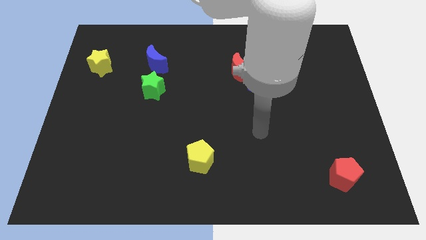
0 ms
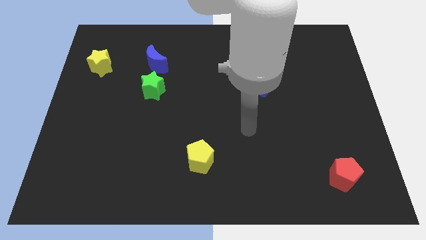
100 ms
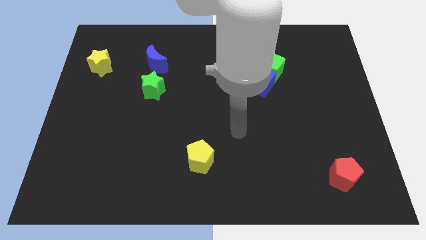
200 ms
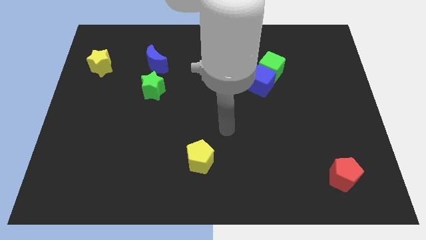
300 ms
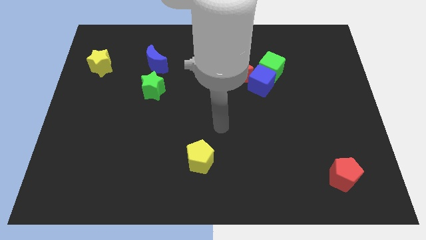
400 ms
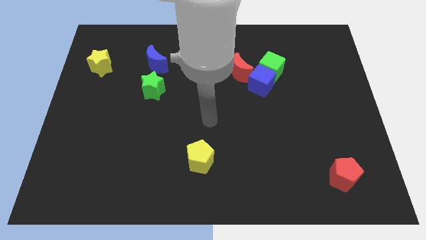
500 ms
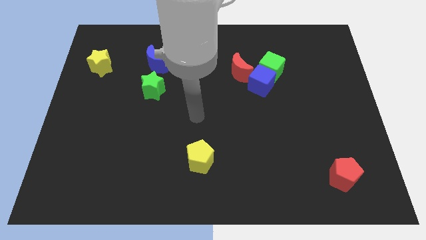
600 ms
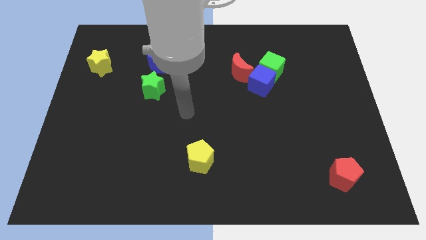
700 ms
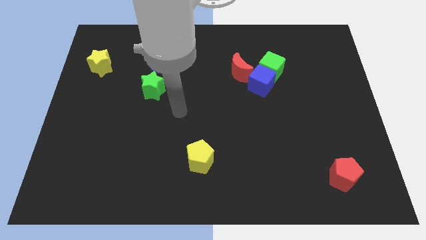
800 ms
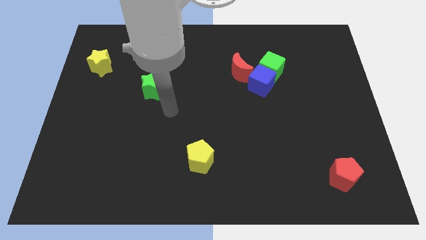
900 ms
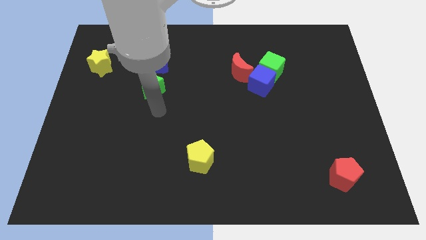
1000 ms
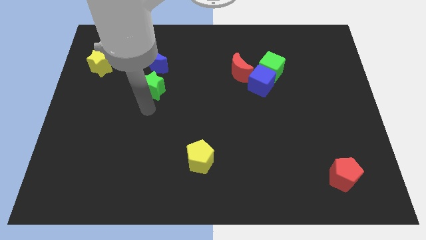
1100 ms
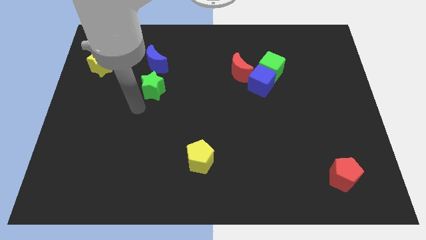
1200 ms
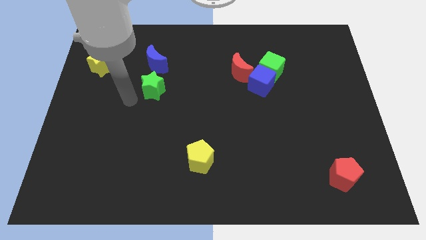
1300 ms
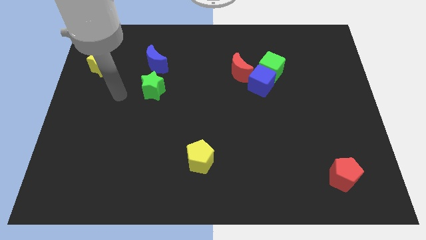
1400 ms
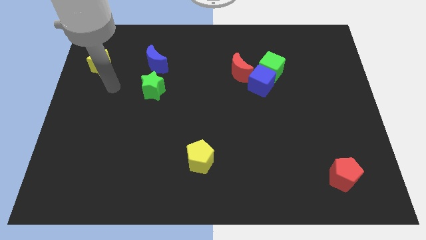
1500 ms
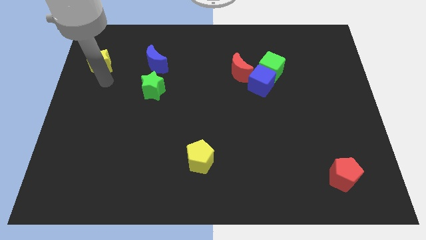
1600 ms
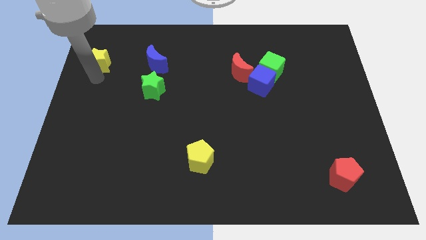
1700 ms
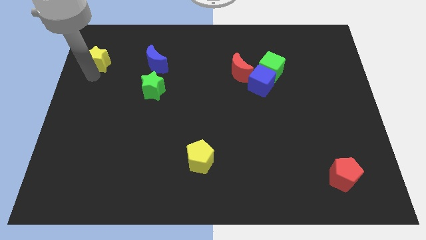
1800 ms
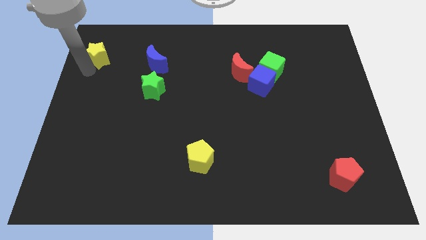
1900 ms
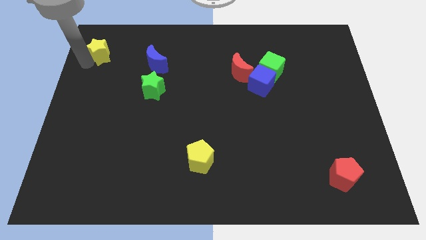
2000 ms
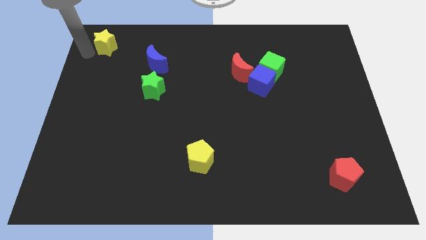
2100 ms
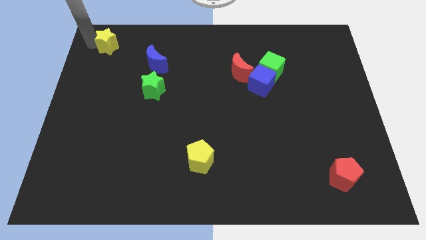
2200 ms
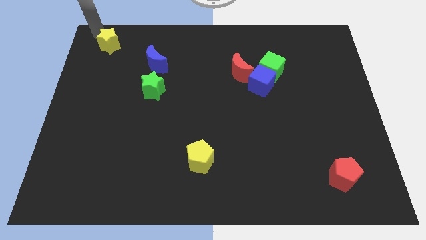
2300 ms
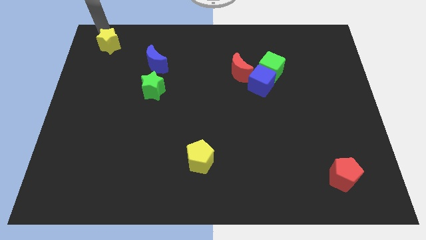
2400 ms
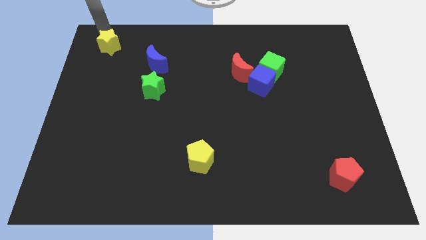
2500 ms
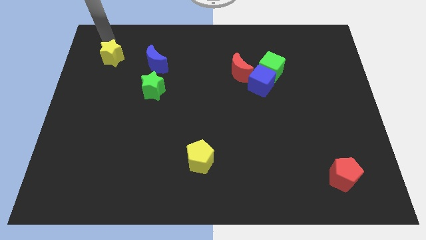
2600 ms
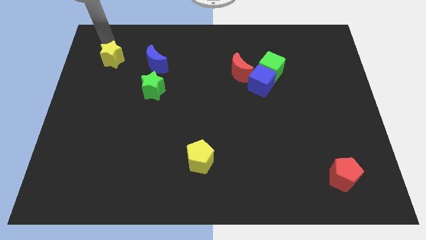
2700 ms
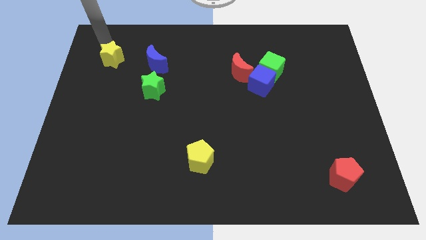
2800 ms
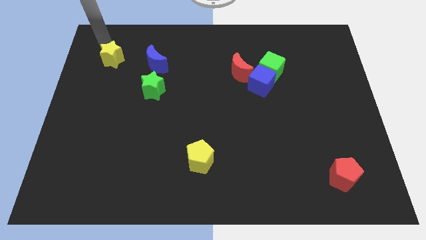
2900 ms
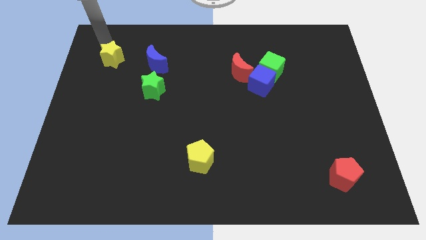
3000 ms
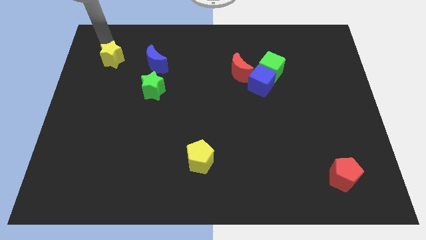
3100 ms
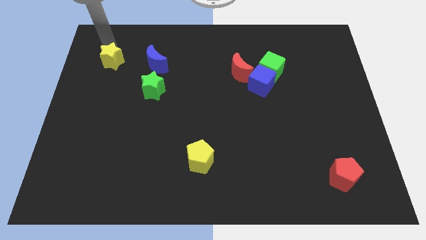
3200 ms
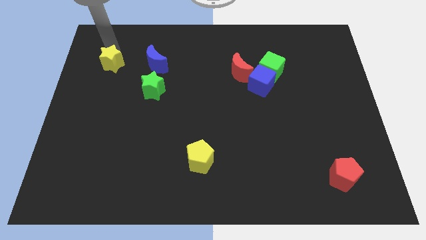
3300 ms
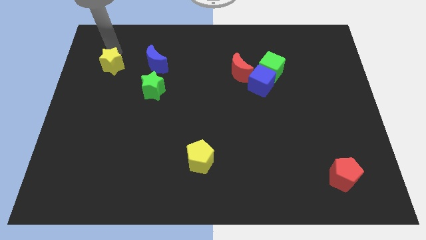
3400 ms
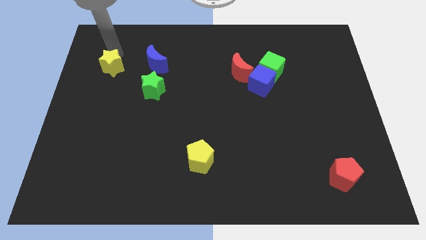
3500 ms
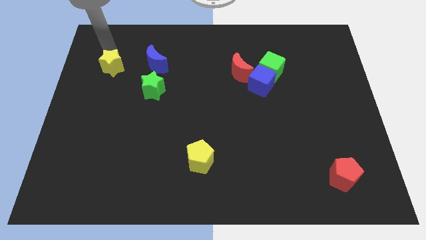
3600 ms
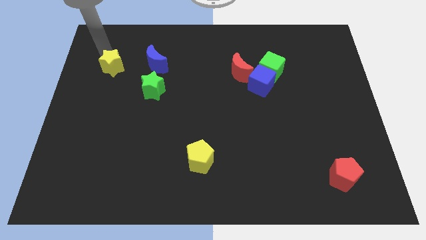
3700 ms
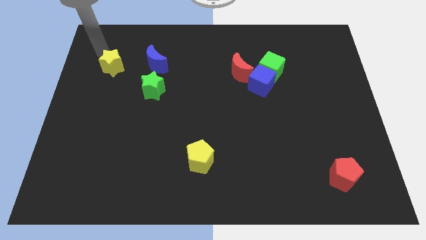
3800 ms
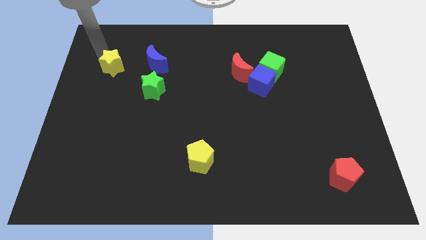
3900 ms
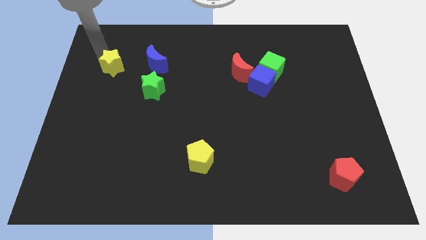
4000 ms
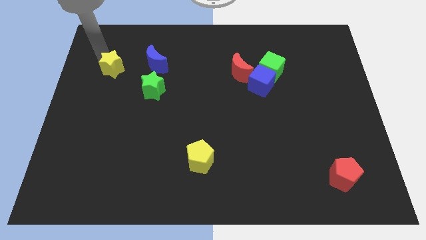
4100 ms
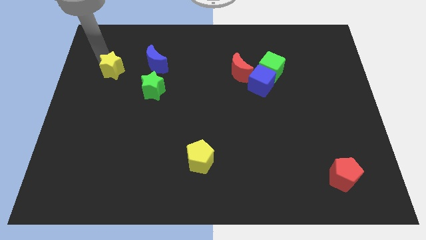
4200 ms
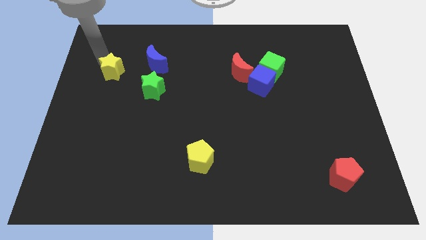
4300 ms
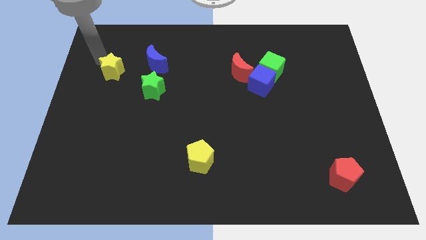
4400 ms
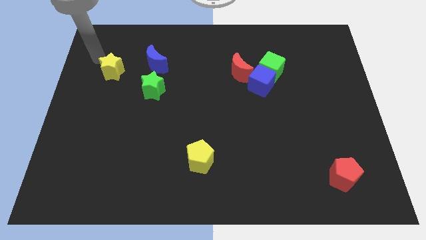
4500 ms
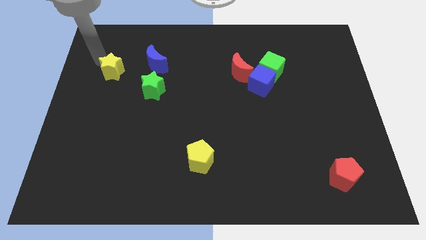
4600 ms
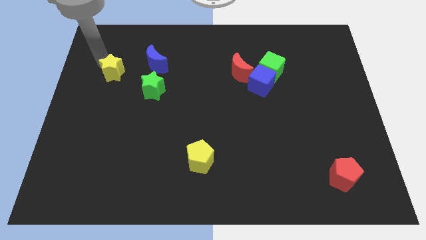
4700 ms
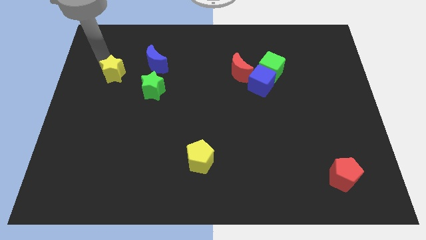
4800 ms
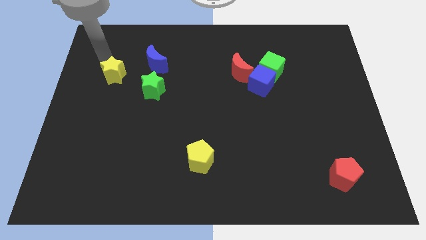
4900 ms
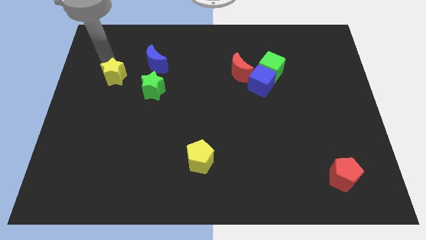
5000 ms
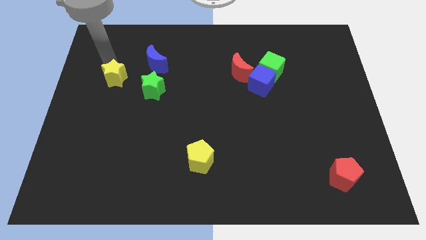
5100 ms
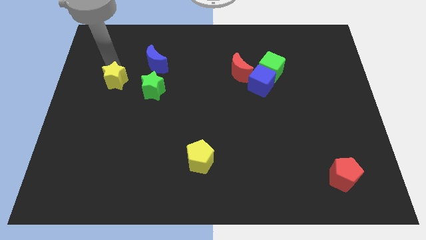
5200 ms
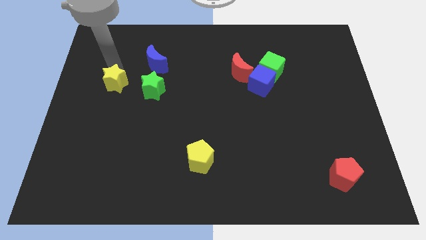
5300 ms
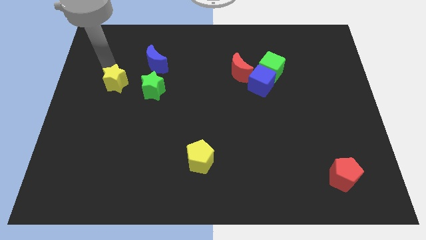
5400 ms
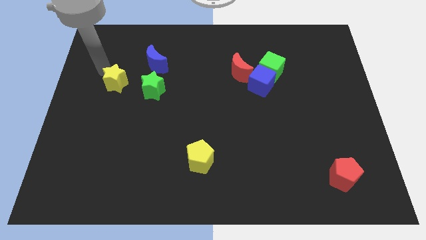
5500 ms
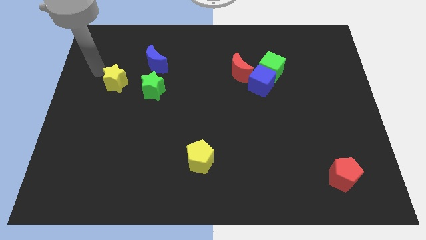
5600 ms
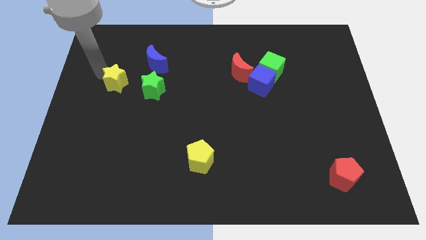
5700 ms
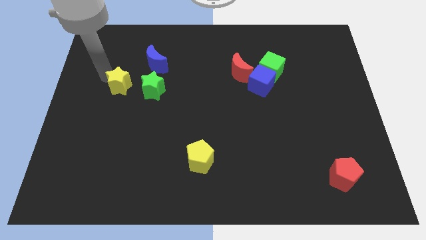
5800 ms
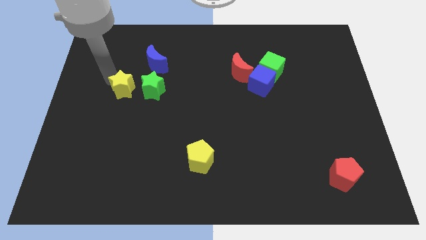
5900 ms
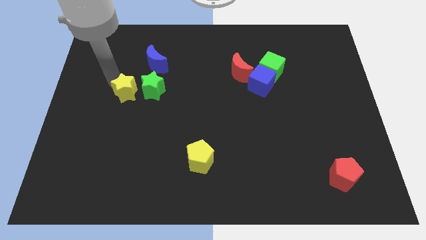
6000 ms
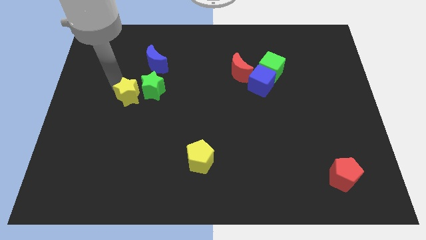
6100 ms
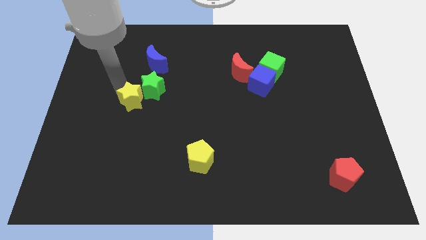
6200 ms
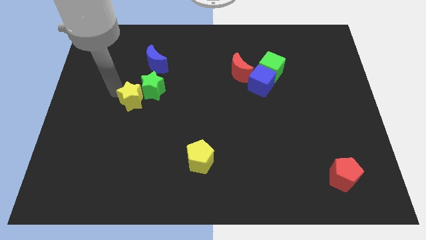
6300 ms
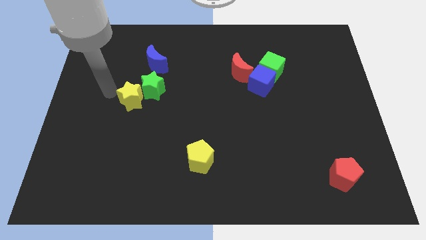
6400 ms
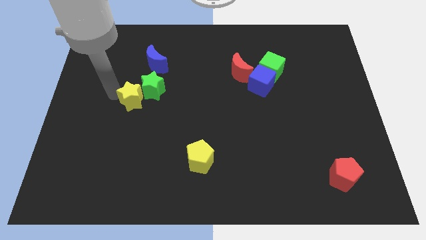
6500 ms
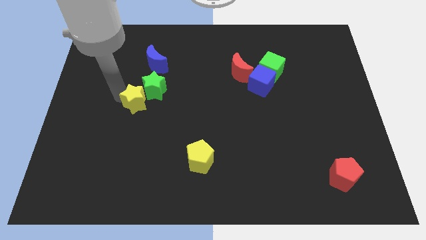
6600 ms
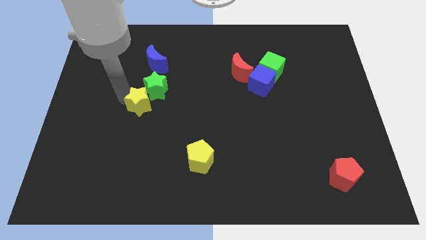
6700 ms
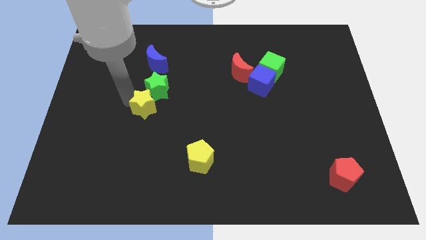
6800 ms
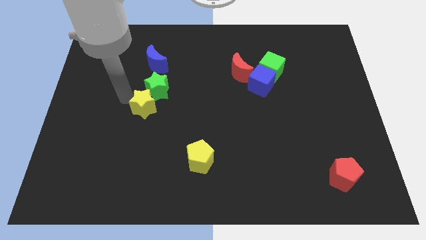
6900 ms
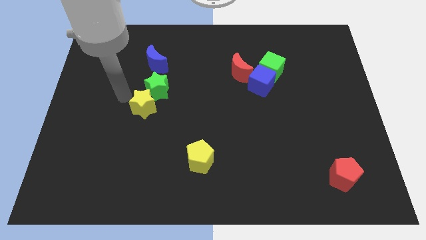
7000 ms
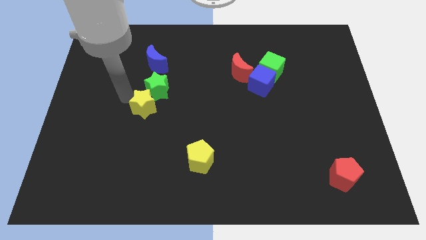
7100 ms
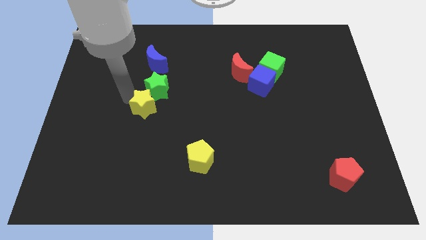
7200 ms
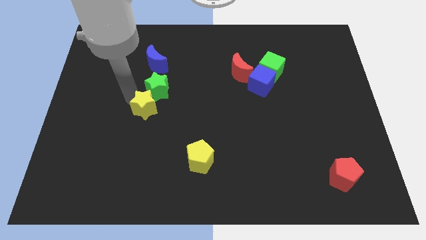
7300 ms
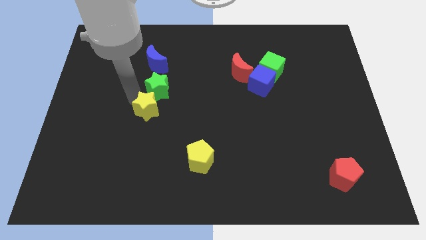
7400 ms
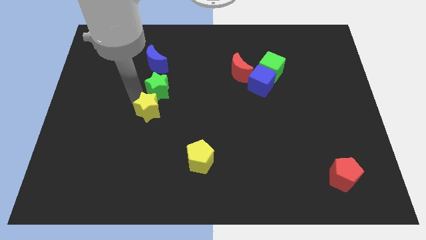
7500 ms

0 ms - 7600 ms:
slide the yellow star diagonally down and to the right

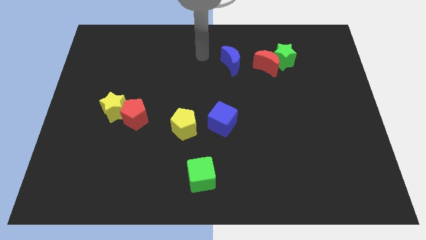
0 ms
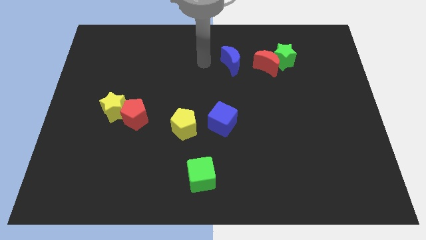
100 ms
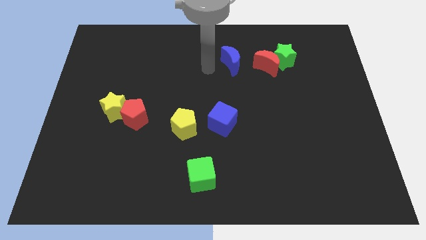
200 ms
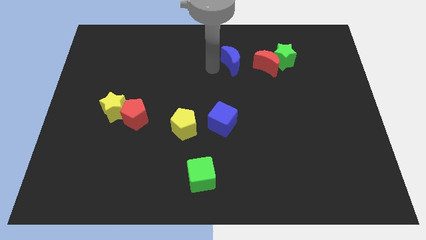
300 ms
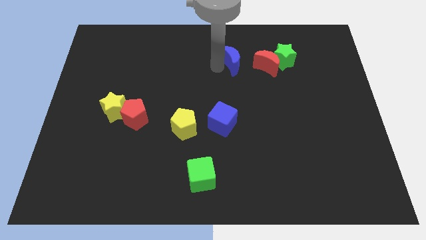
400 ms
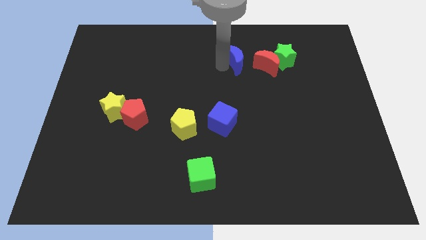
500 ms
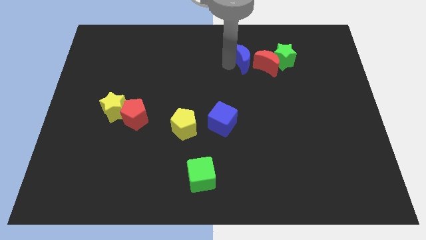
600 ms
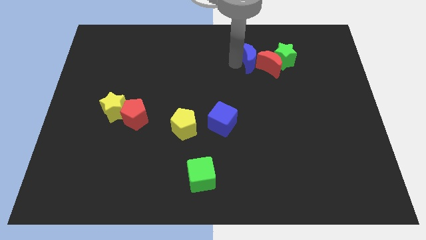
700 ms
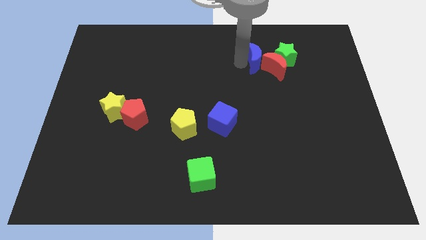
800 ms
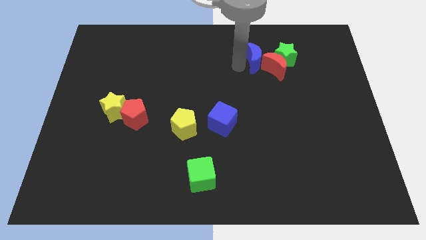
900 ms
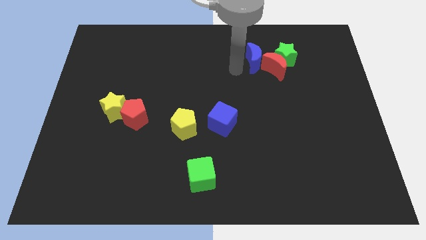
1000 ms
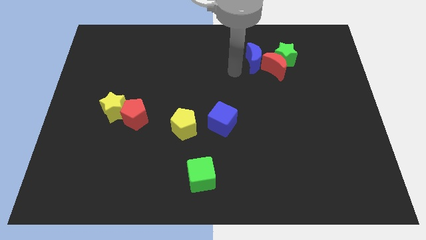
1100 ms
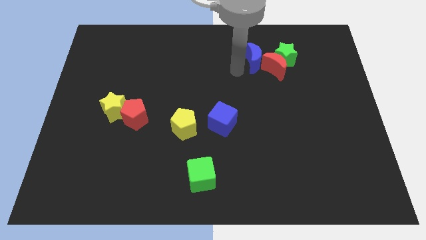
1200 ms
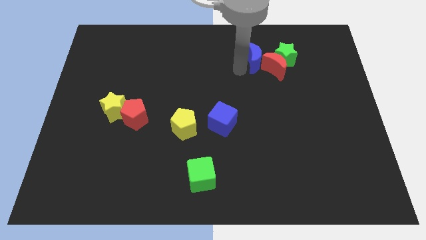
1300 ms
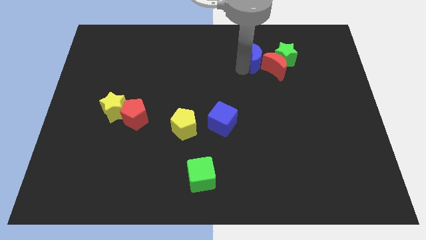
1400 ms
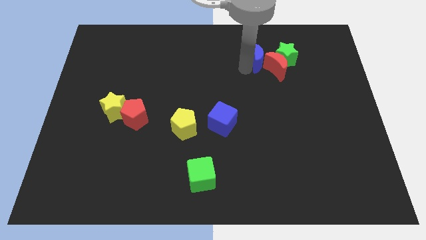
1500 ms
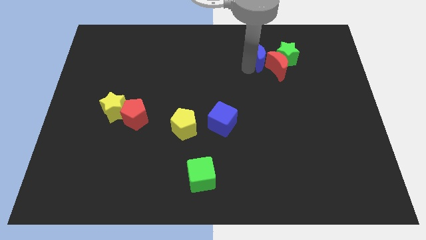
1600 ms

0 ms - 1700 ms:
slide the blue moon right somewhat
